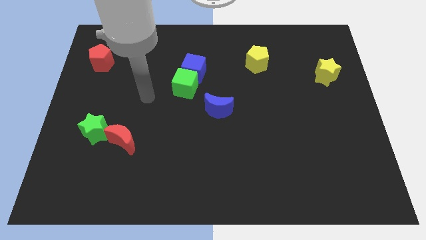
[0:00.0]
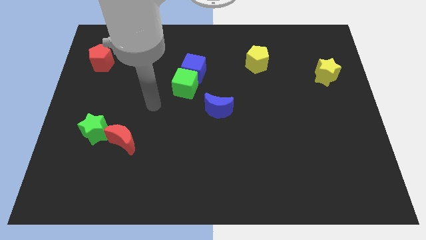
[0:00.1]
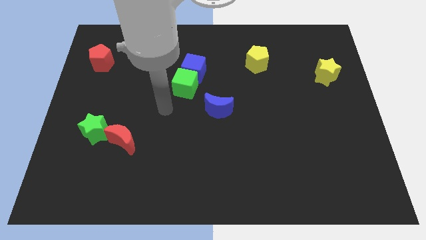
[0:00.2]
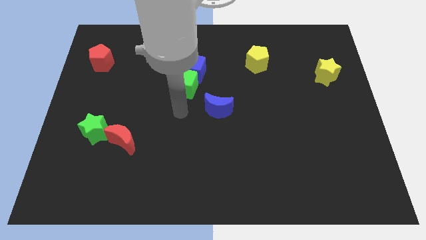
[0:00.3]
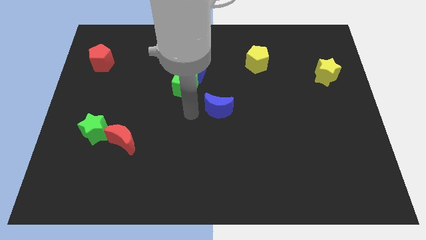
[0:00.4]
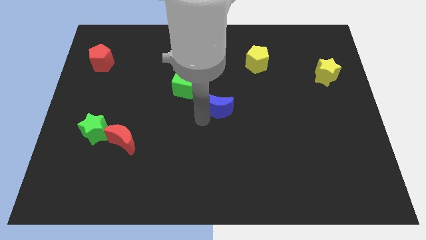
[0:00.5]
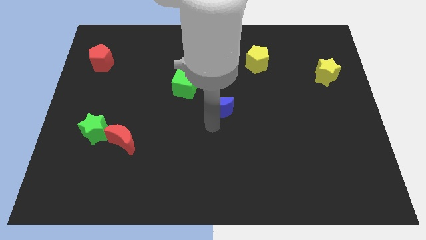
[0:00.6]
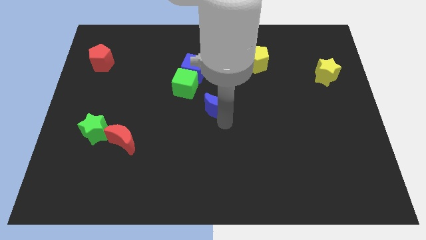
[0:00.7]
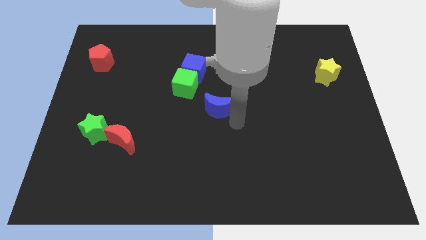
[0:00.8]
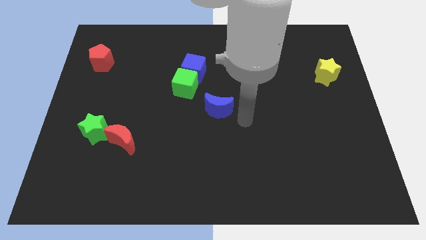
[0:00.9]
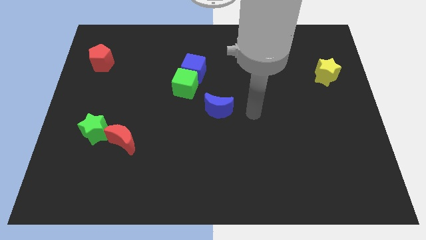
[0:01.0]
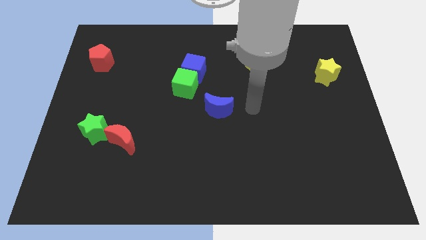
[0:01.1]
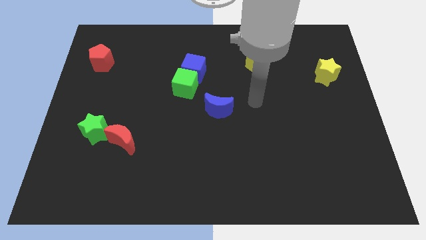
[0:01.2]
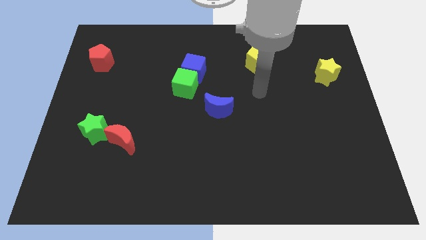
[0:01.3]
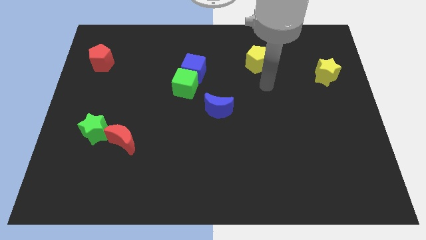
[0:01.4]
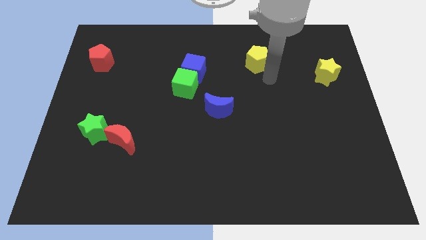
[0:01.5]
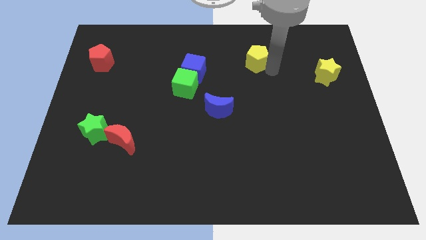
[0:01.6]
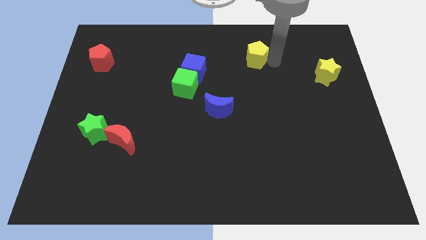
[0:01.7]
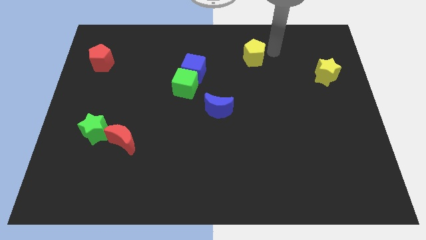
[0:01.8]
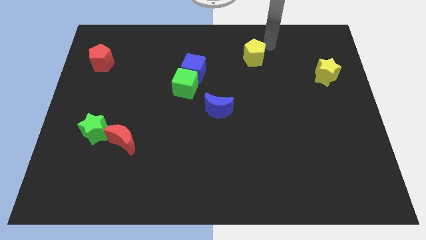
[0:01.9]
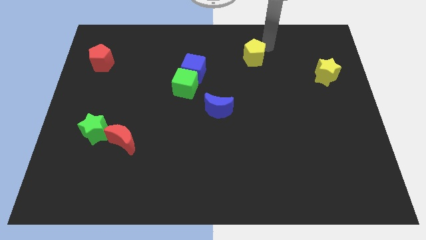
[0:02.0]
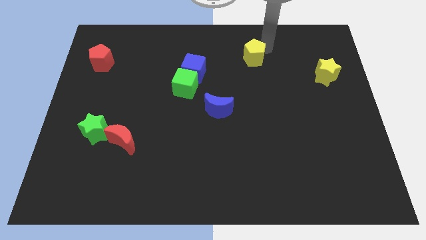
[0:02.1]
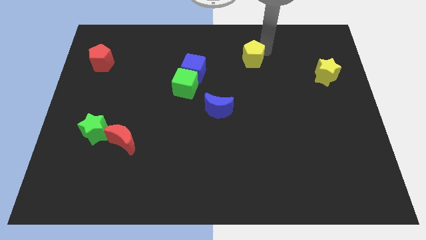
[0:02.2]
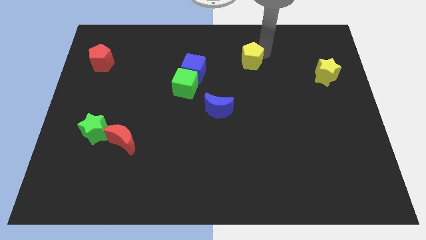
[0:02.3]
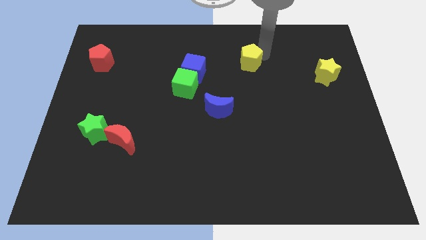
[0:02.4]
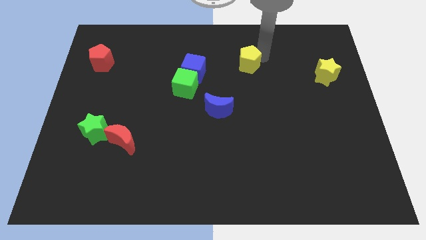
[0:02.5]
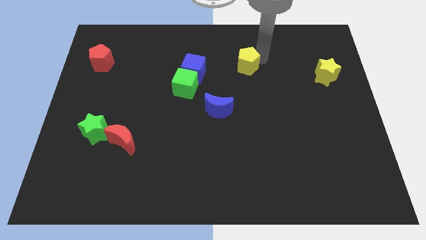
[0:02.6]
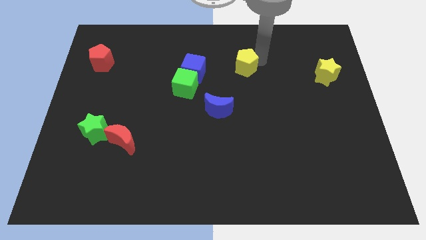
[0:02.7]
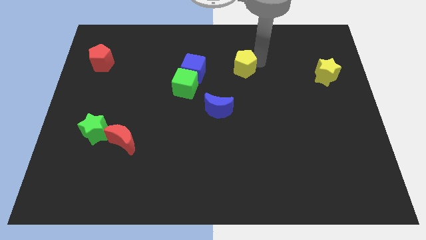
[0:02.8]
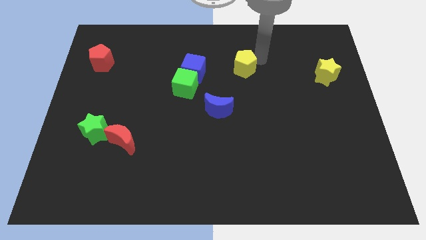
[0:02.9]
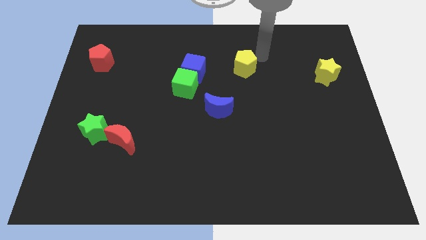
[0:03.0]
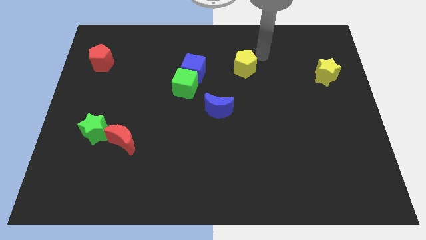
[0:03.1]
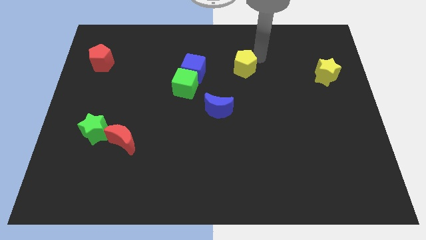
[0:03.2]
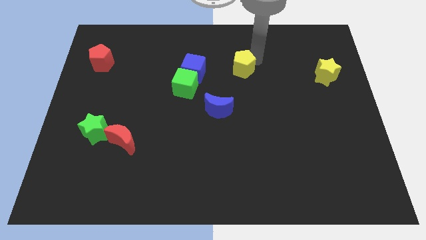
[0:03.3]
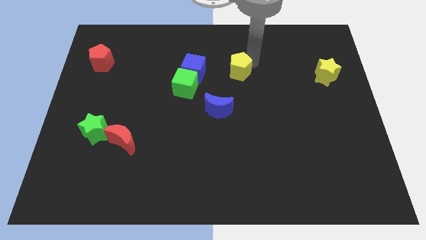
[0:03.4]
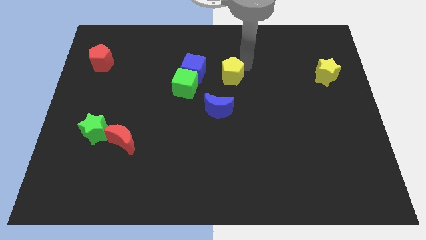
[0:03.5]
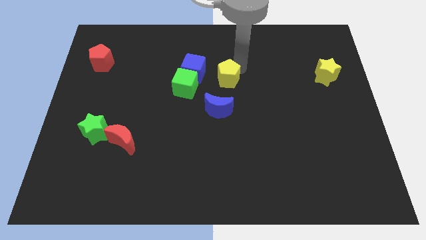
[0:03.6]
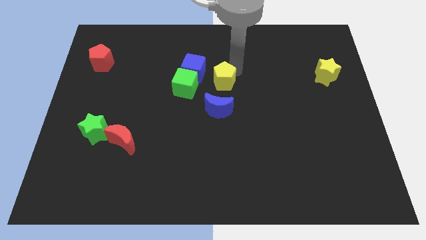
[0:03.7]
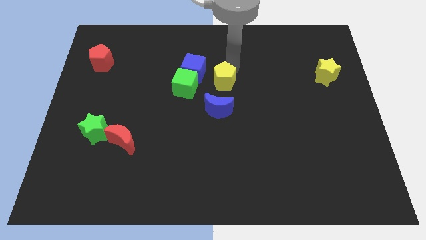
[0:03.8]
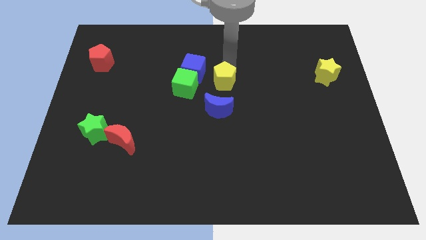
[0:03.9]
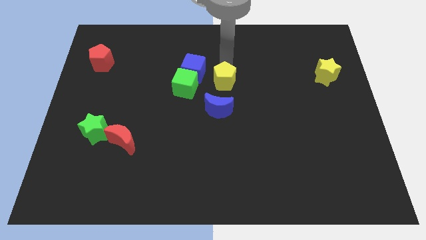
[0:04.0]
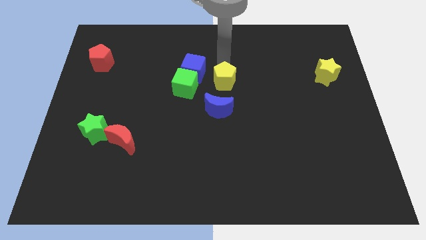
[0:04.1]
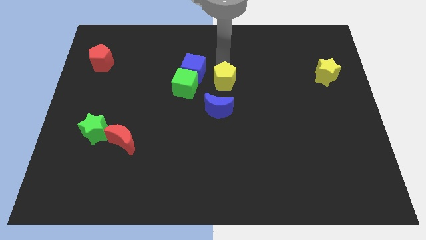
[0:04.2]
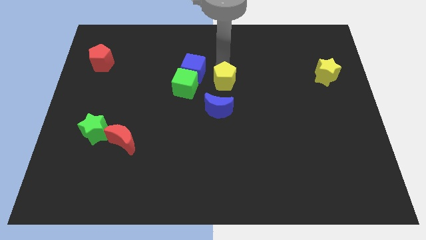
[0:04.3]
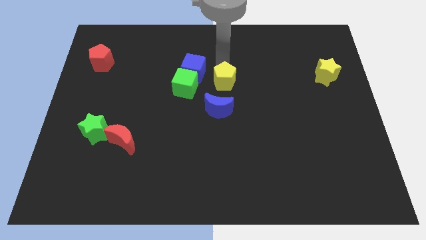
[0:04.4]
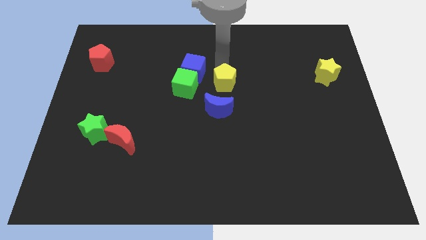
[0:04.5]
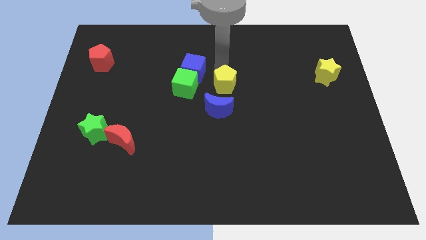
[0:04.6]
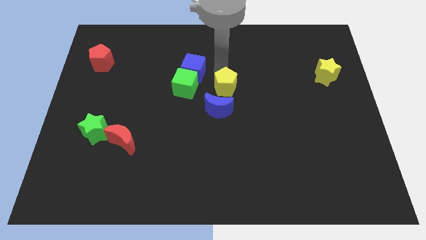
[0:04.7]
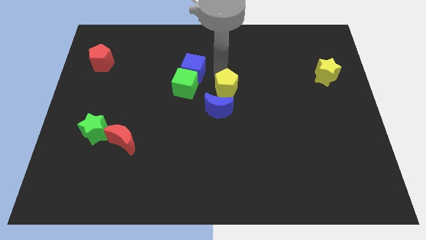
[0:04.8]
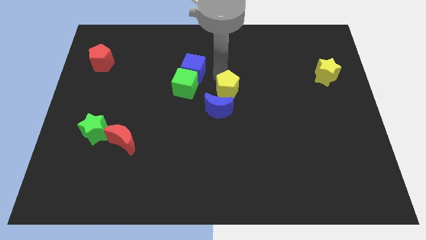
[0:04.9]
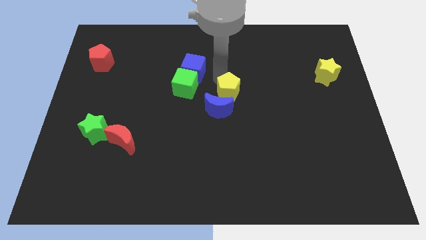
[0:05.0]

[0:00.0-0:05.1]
move the yellow pentagon to the blue moon

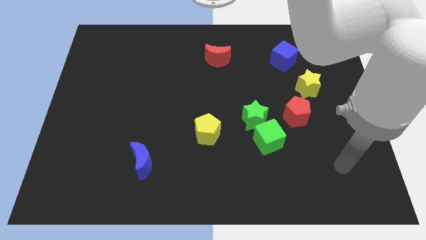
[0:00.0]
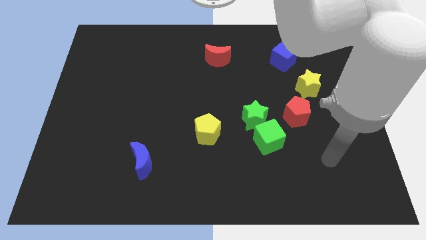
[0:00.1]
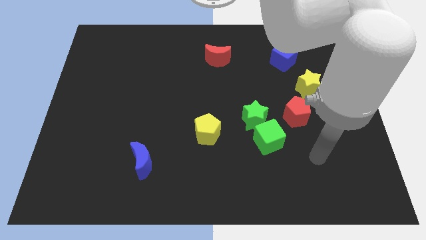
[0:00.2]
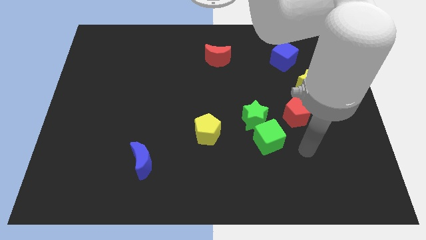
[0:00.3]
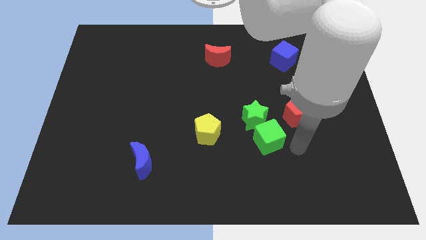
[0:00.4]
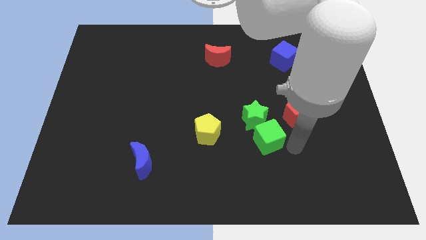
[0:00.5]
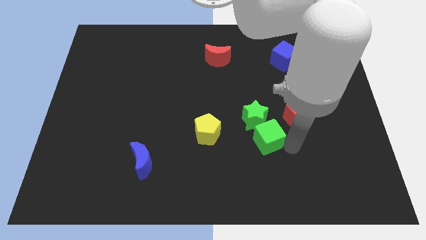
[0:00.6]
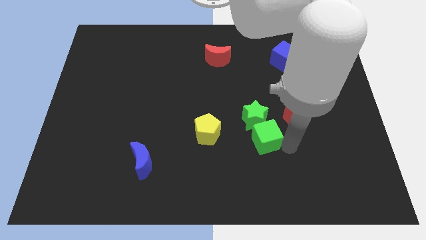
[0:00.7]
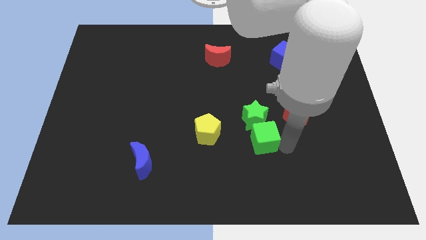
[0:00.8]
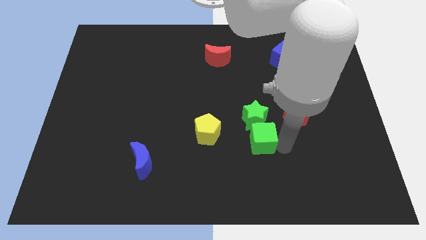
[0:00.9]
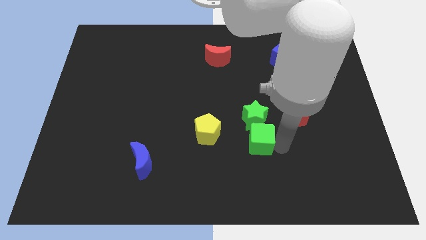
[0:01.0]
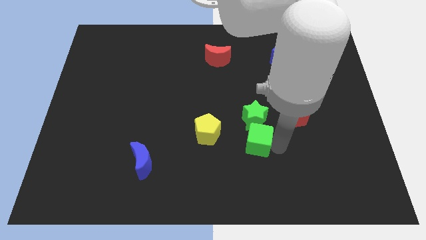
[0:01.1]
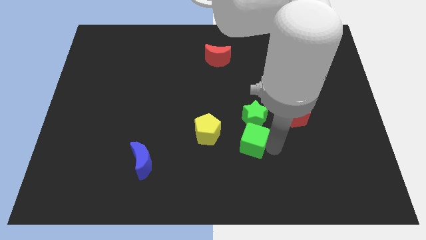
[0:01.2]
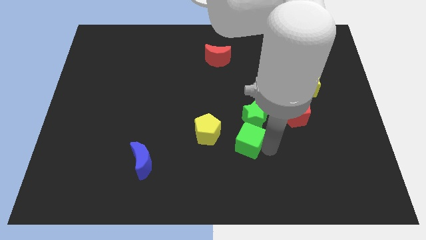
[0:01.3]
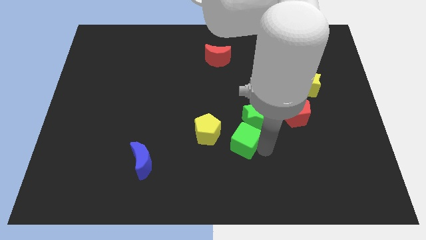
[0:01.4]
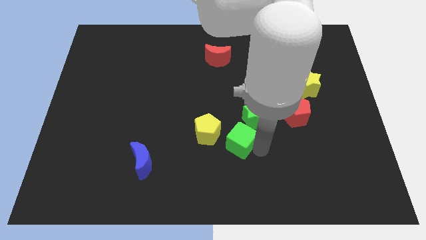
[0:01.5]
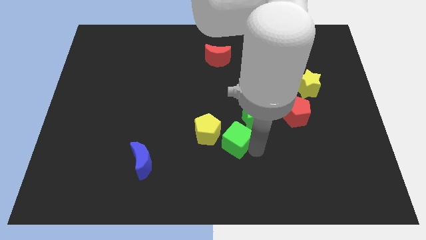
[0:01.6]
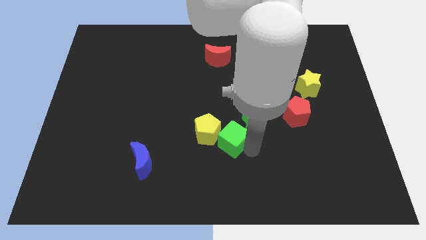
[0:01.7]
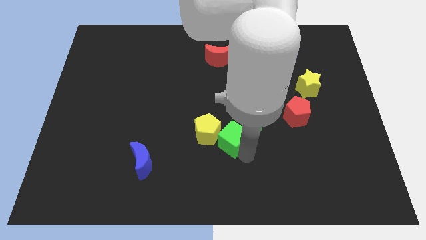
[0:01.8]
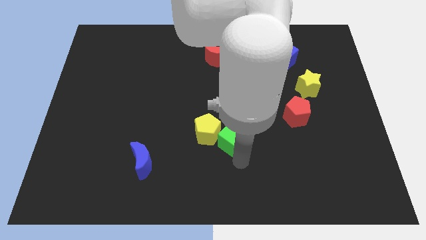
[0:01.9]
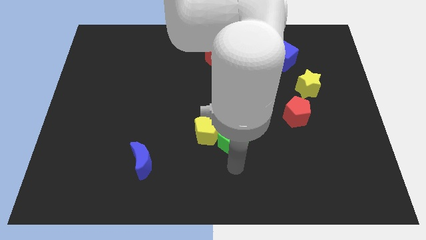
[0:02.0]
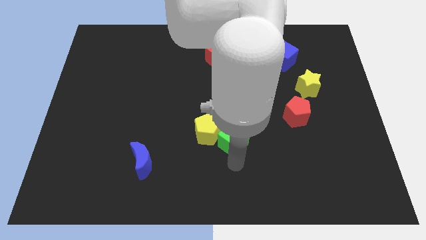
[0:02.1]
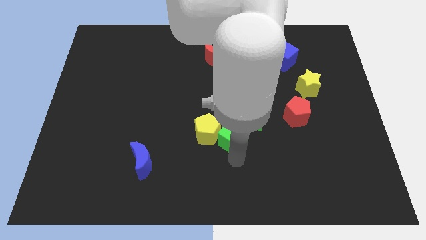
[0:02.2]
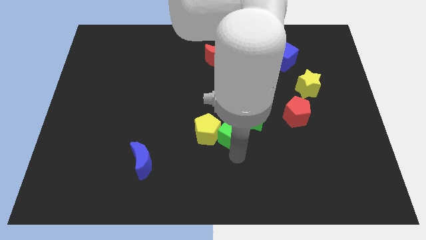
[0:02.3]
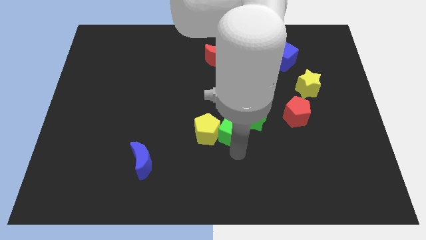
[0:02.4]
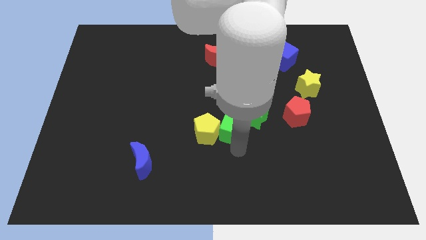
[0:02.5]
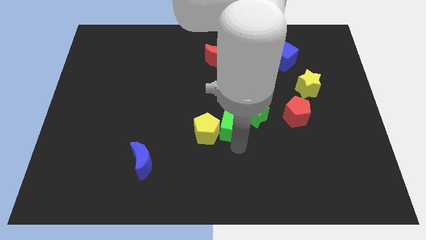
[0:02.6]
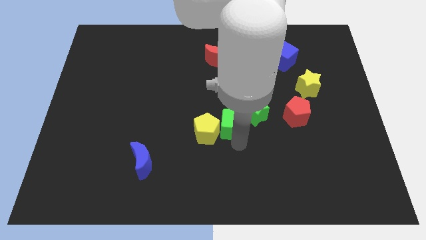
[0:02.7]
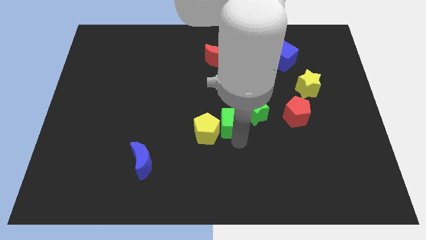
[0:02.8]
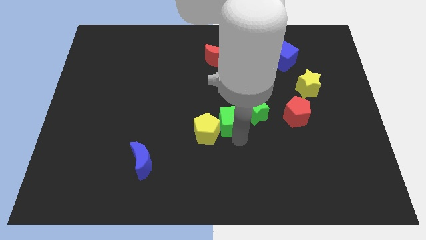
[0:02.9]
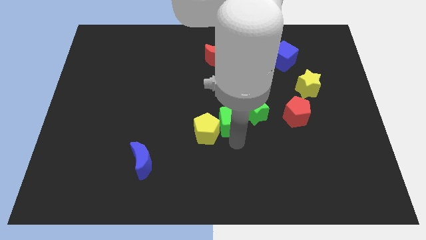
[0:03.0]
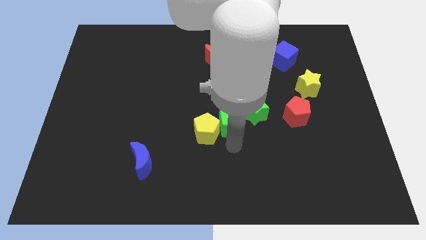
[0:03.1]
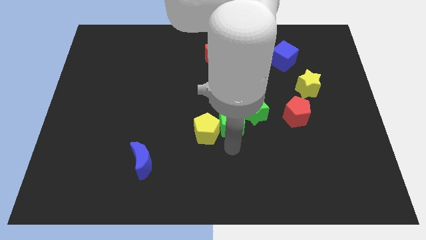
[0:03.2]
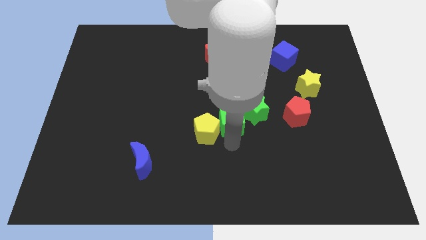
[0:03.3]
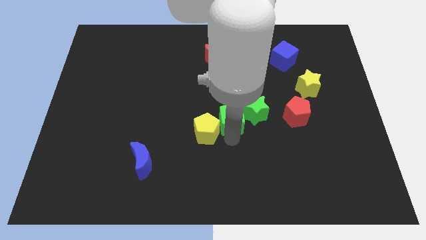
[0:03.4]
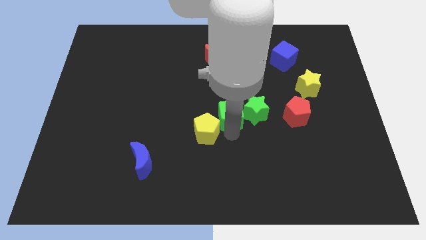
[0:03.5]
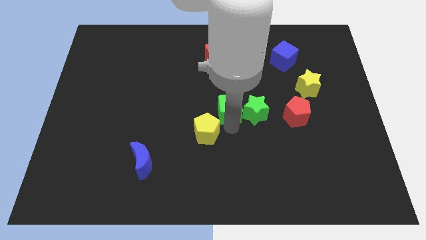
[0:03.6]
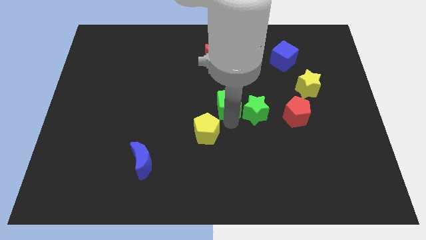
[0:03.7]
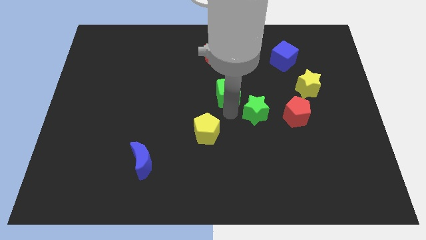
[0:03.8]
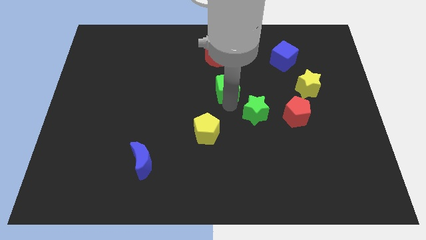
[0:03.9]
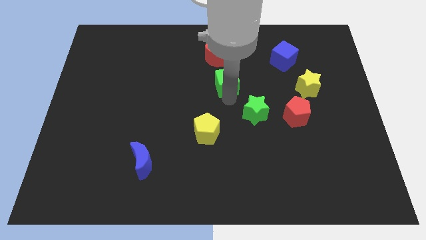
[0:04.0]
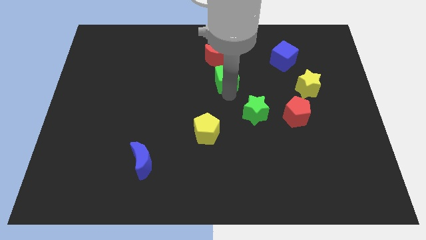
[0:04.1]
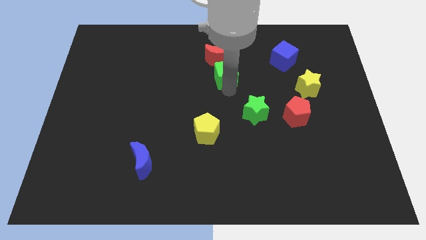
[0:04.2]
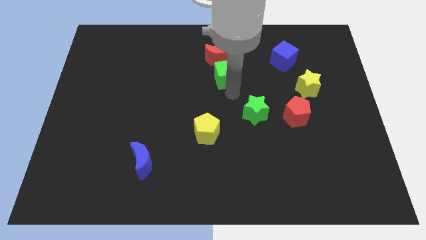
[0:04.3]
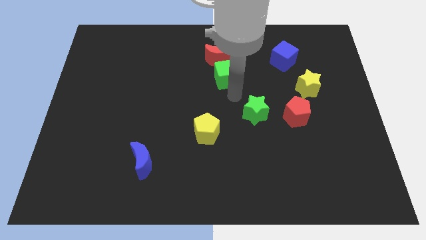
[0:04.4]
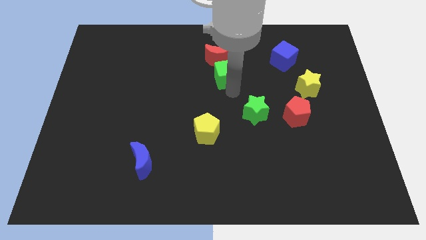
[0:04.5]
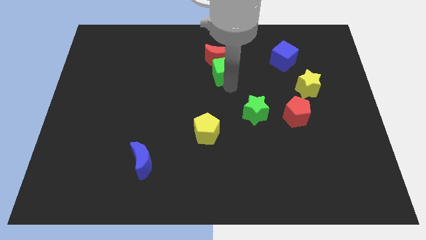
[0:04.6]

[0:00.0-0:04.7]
put the green cube next to the red moon
